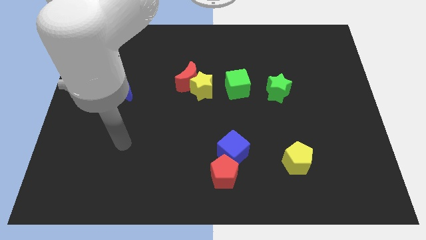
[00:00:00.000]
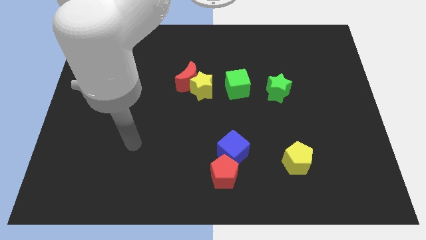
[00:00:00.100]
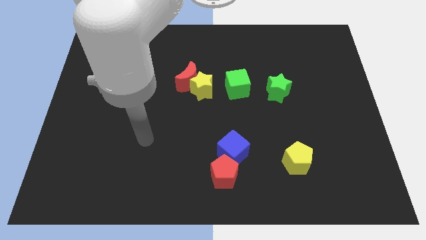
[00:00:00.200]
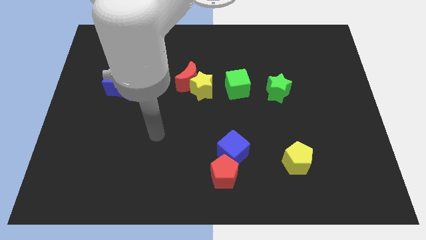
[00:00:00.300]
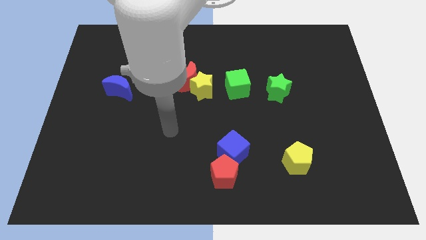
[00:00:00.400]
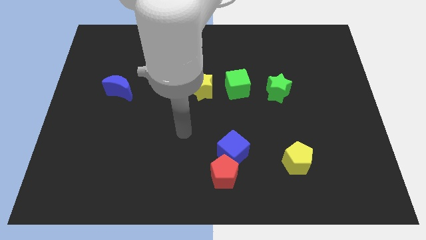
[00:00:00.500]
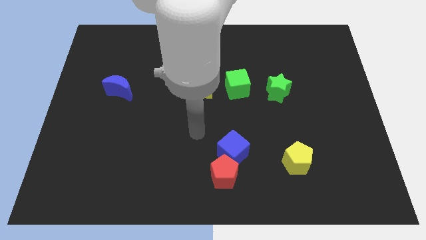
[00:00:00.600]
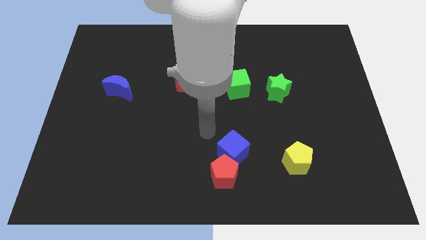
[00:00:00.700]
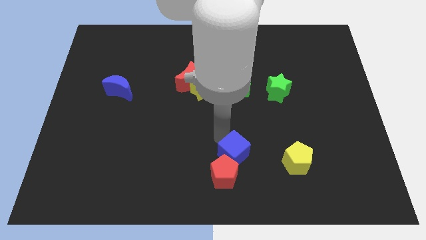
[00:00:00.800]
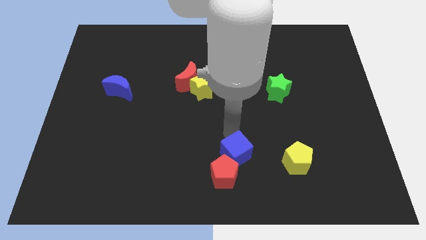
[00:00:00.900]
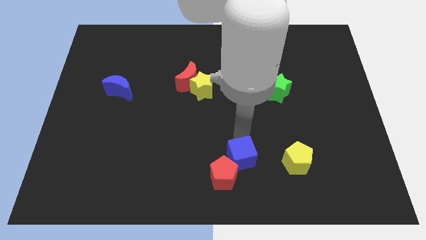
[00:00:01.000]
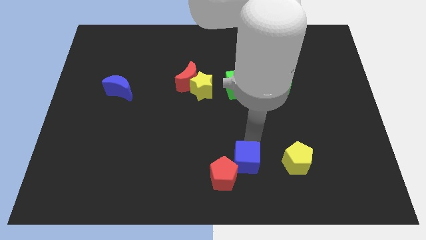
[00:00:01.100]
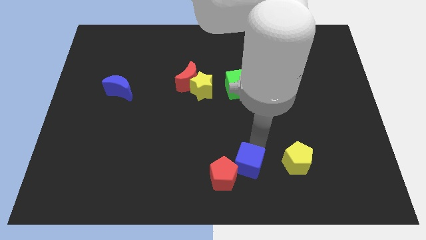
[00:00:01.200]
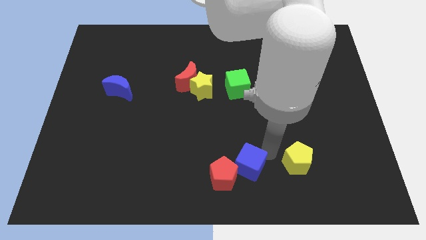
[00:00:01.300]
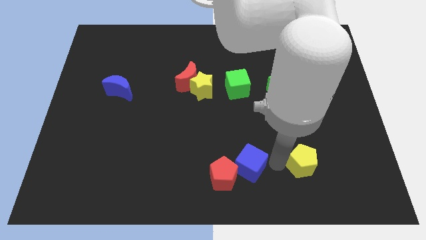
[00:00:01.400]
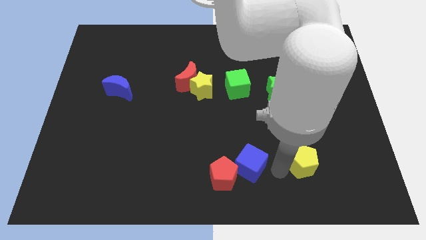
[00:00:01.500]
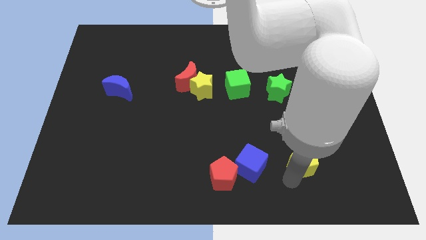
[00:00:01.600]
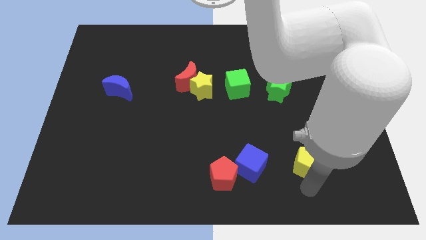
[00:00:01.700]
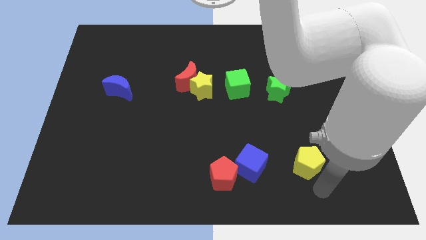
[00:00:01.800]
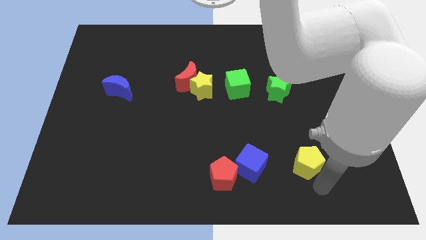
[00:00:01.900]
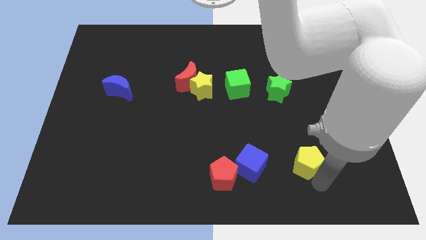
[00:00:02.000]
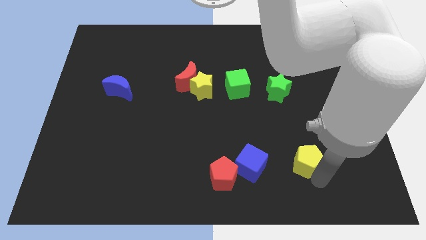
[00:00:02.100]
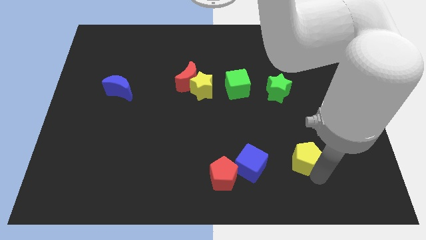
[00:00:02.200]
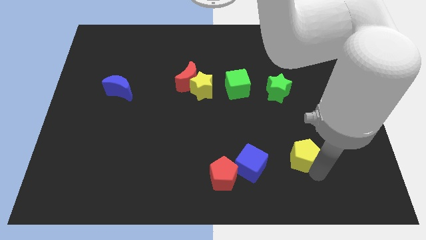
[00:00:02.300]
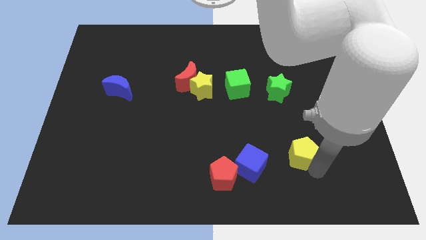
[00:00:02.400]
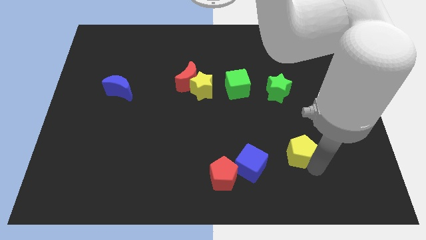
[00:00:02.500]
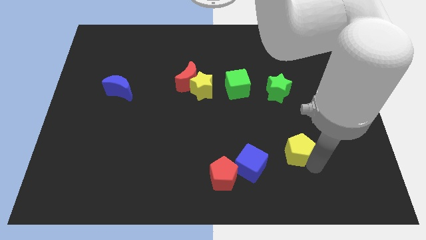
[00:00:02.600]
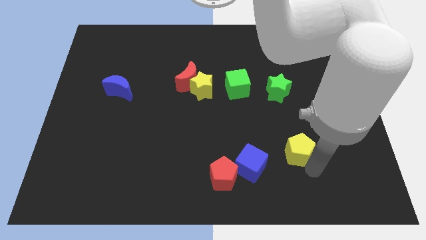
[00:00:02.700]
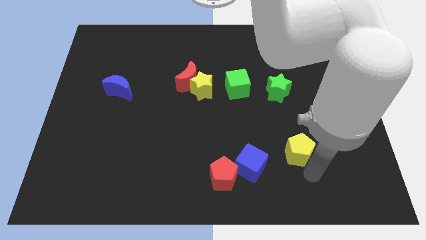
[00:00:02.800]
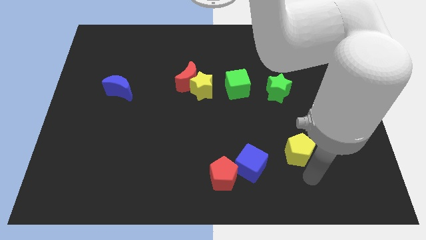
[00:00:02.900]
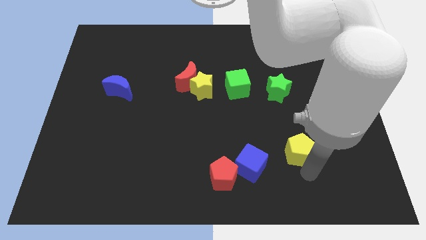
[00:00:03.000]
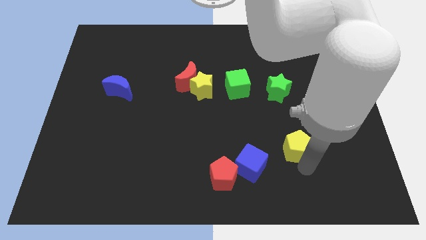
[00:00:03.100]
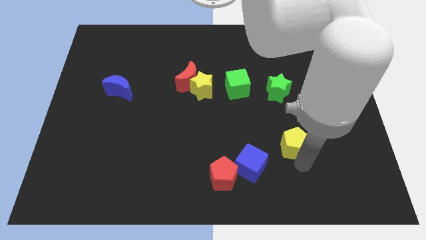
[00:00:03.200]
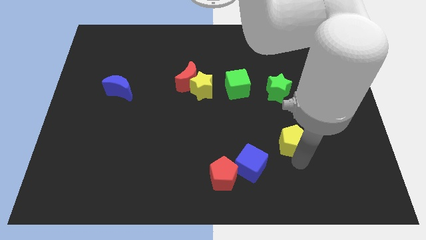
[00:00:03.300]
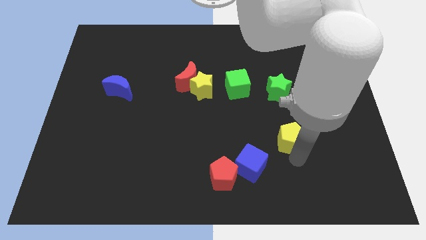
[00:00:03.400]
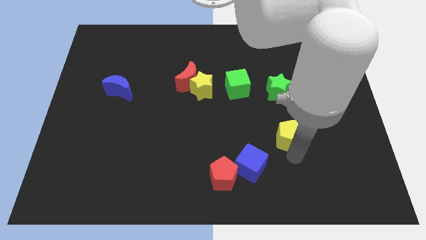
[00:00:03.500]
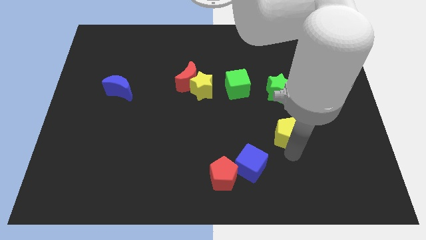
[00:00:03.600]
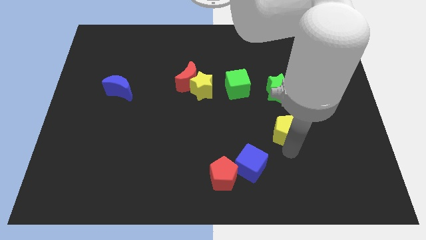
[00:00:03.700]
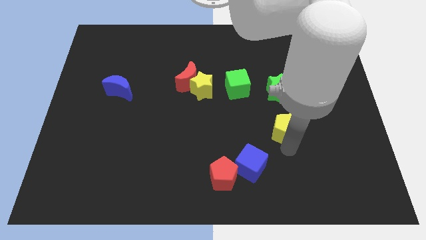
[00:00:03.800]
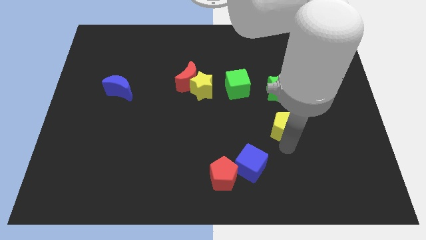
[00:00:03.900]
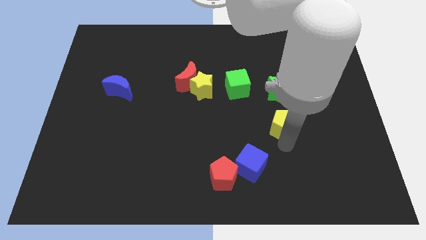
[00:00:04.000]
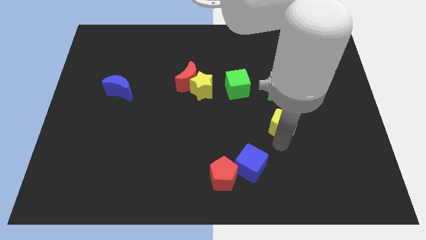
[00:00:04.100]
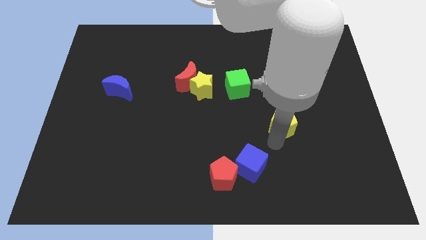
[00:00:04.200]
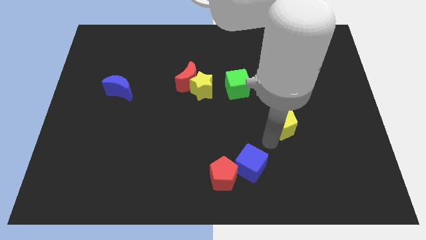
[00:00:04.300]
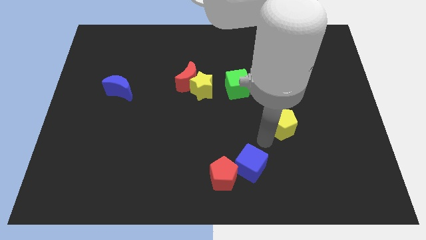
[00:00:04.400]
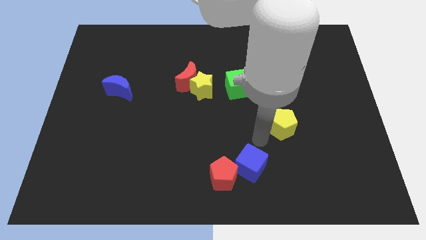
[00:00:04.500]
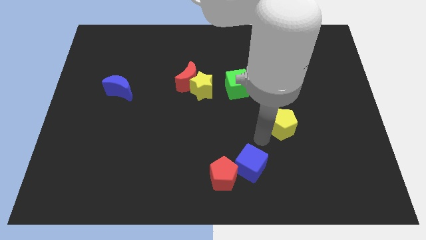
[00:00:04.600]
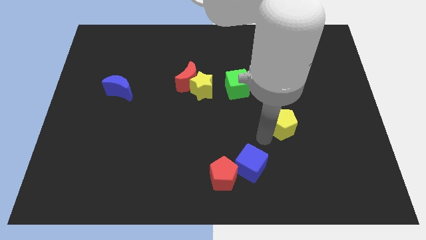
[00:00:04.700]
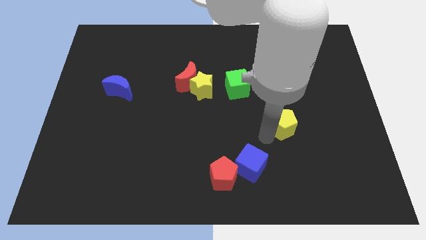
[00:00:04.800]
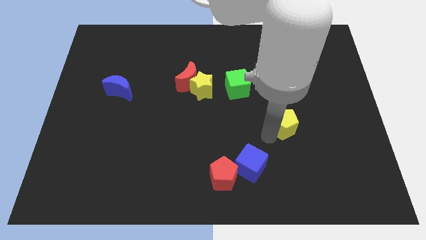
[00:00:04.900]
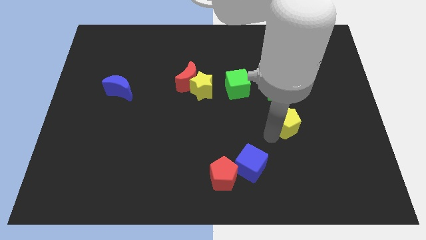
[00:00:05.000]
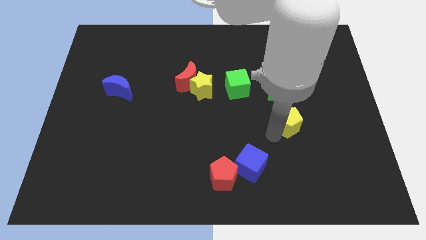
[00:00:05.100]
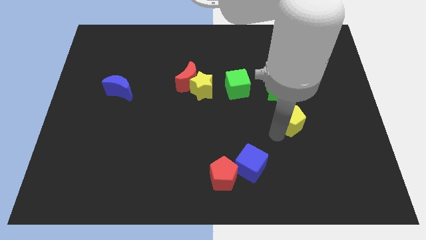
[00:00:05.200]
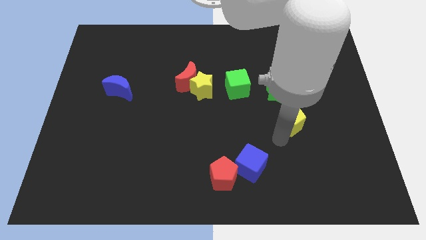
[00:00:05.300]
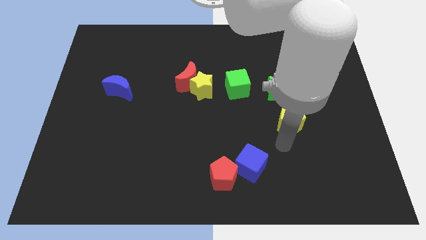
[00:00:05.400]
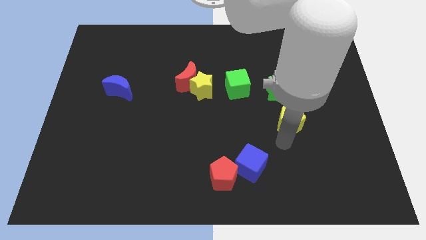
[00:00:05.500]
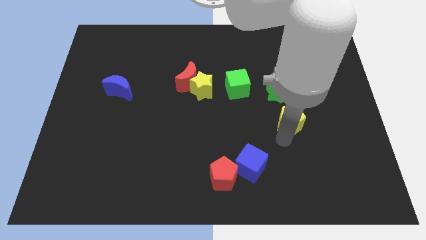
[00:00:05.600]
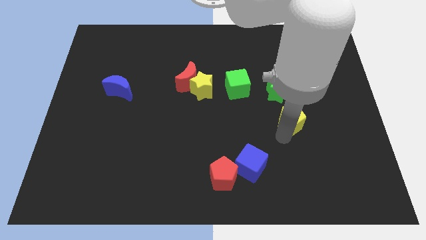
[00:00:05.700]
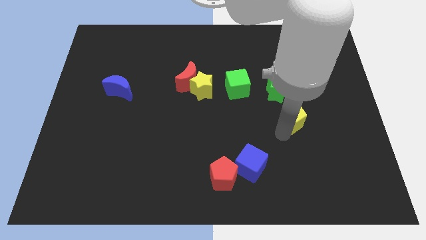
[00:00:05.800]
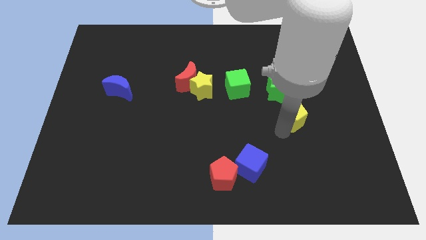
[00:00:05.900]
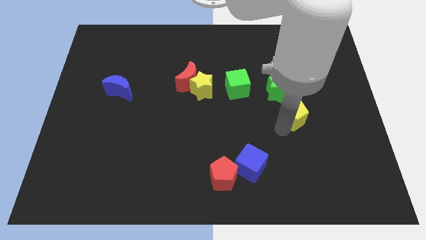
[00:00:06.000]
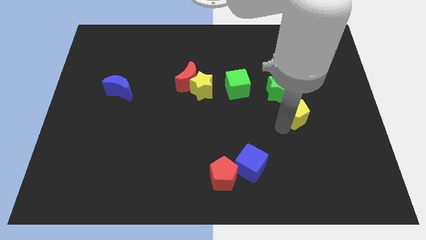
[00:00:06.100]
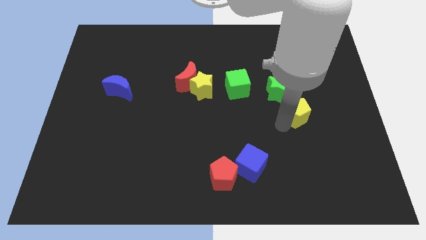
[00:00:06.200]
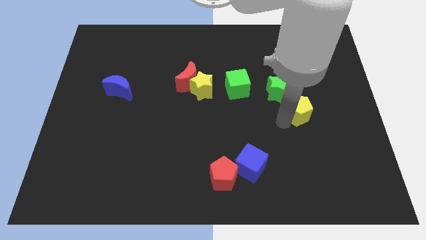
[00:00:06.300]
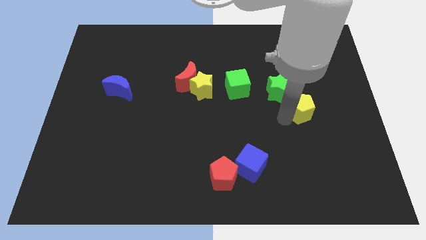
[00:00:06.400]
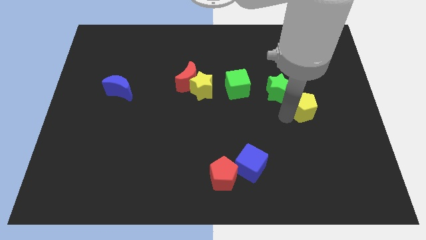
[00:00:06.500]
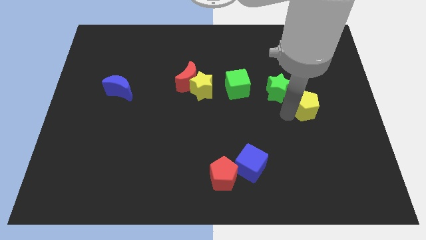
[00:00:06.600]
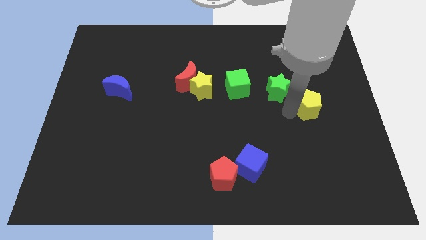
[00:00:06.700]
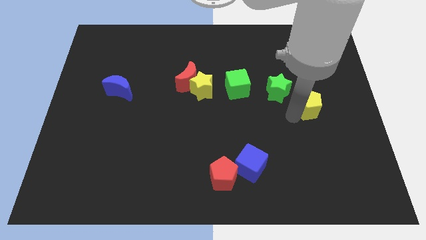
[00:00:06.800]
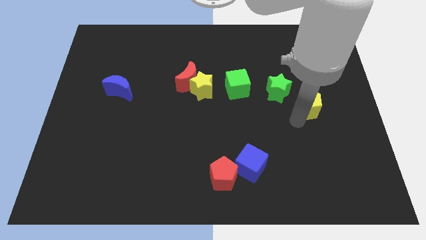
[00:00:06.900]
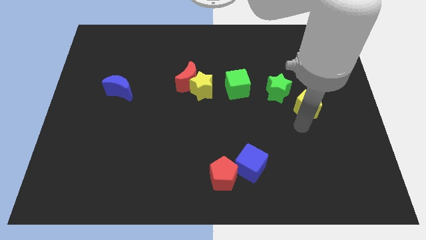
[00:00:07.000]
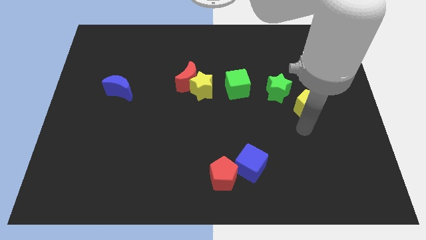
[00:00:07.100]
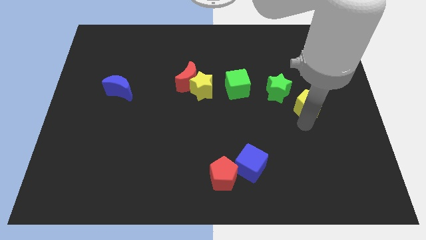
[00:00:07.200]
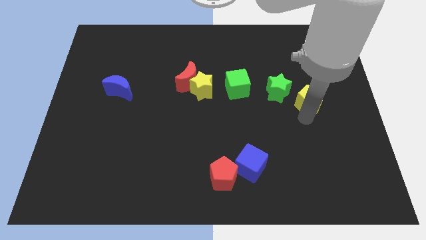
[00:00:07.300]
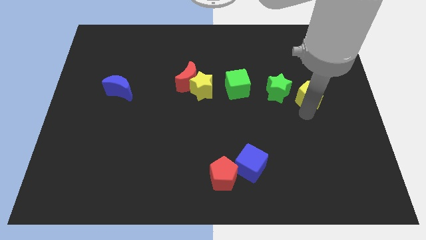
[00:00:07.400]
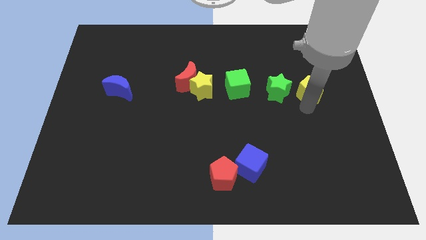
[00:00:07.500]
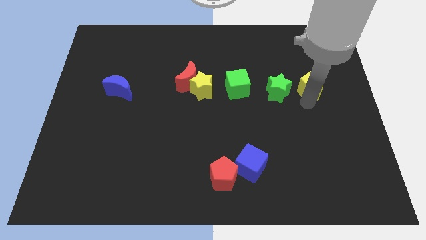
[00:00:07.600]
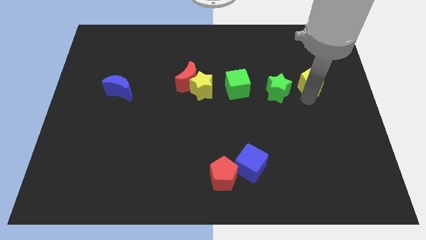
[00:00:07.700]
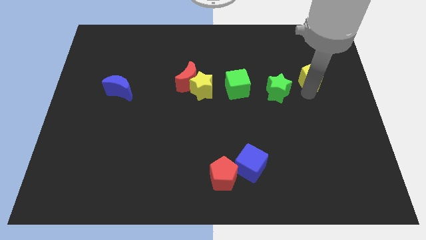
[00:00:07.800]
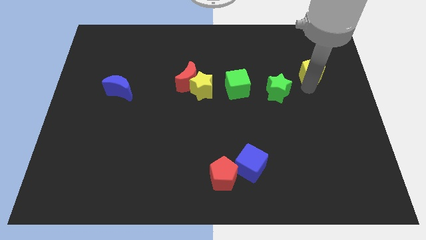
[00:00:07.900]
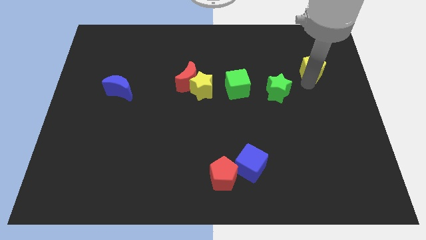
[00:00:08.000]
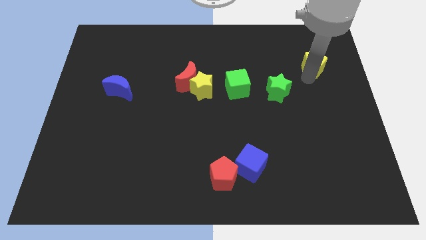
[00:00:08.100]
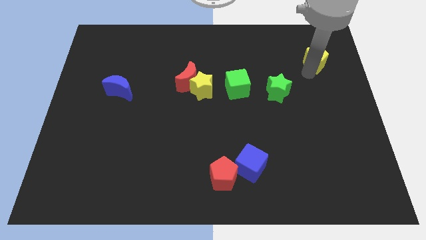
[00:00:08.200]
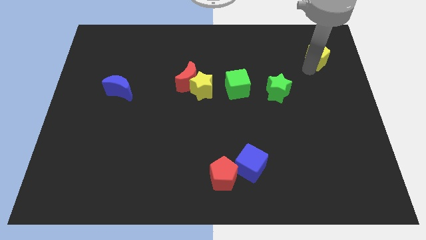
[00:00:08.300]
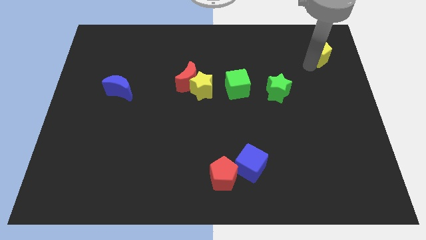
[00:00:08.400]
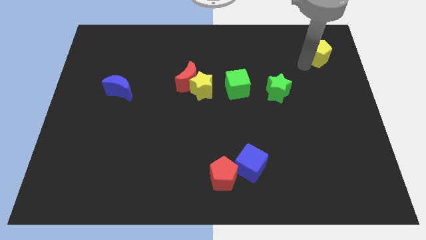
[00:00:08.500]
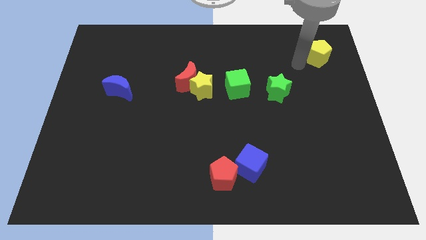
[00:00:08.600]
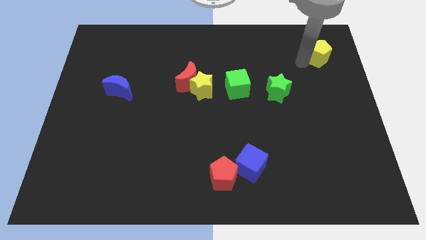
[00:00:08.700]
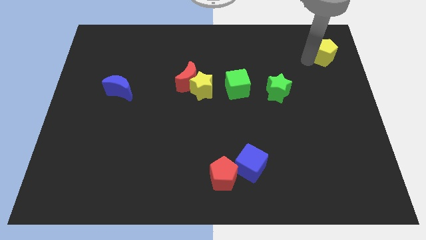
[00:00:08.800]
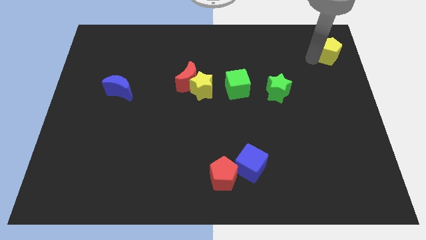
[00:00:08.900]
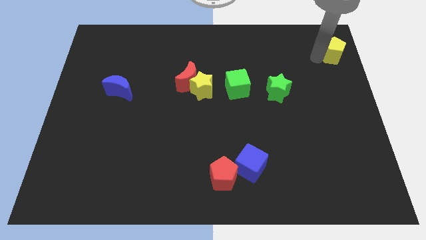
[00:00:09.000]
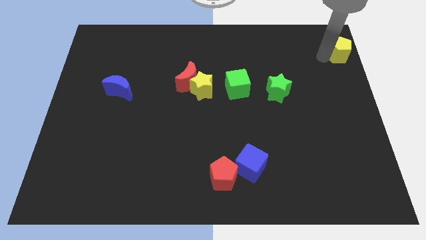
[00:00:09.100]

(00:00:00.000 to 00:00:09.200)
put the yellow pentagon to the top right
